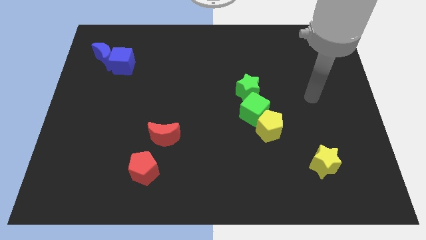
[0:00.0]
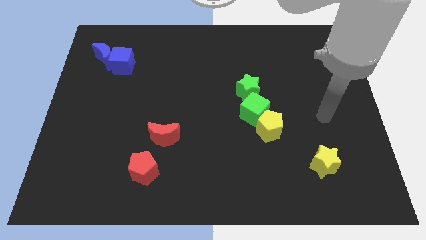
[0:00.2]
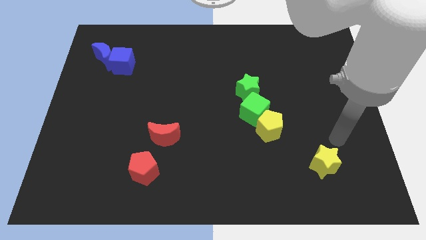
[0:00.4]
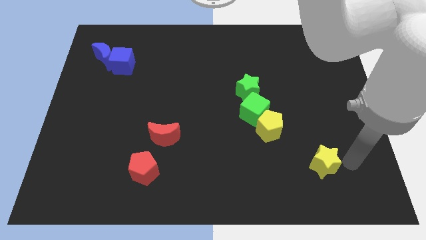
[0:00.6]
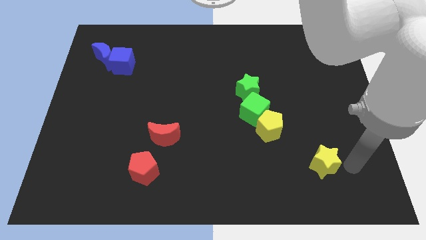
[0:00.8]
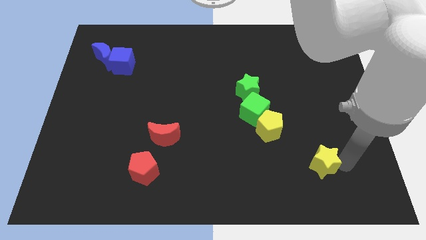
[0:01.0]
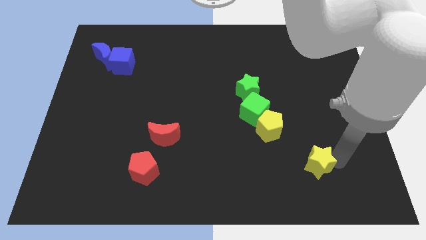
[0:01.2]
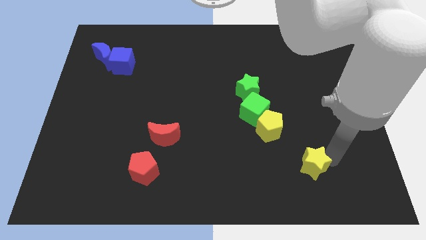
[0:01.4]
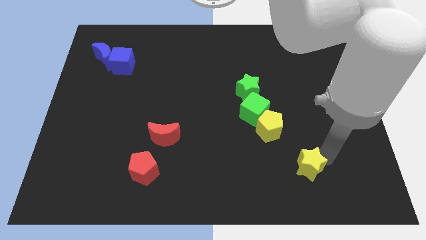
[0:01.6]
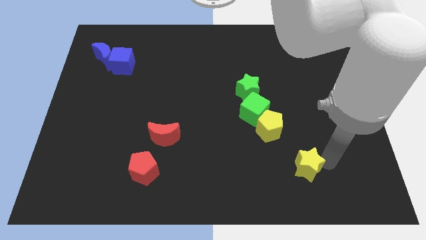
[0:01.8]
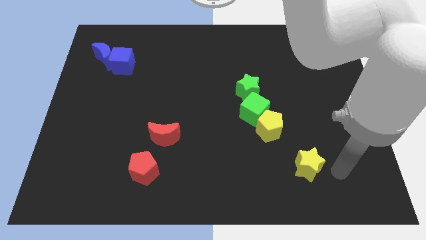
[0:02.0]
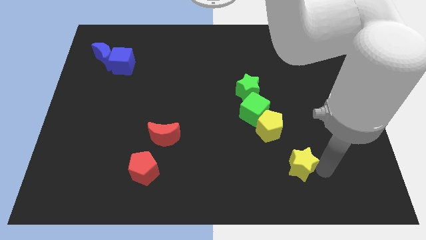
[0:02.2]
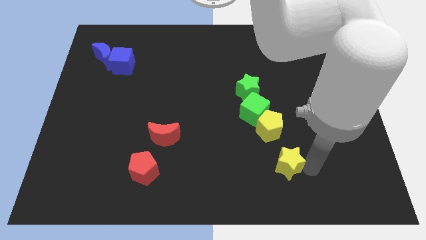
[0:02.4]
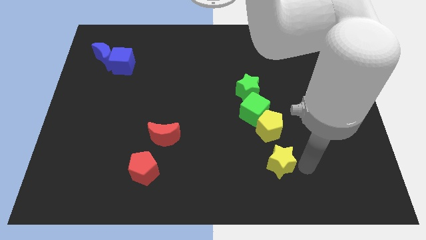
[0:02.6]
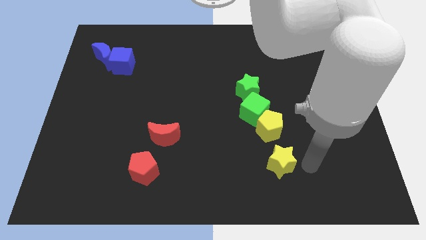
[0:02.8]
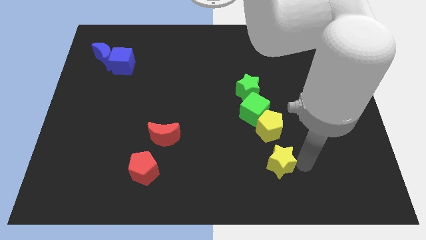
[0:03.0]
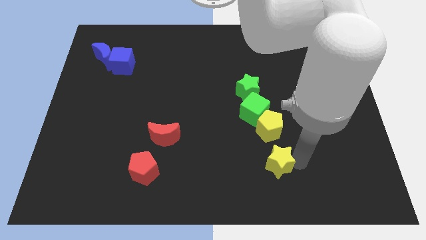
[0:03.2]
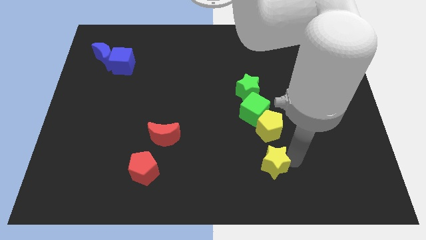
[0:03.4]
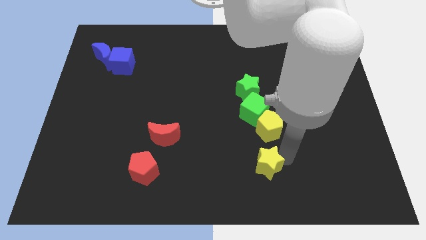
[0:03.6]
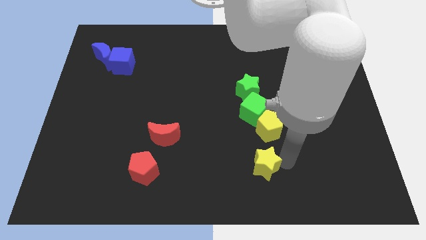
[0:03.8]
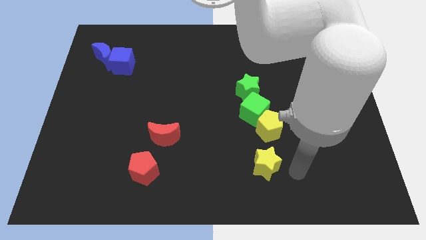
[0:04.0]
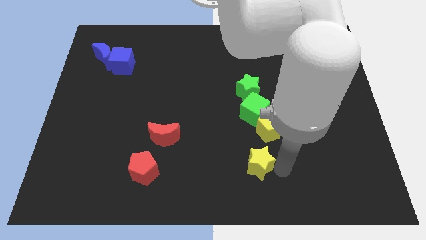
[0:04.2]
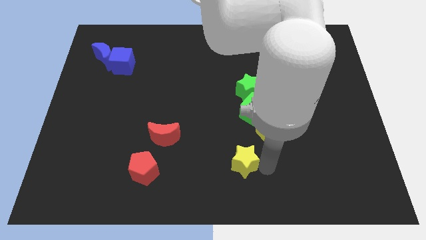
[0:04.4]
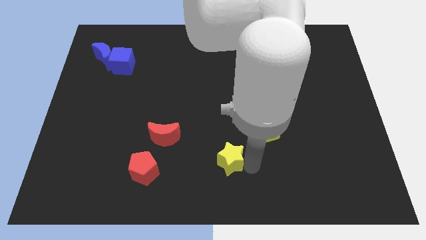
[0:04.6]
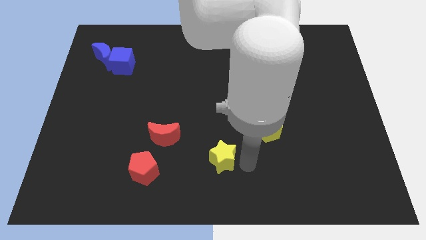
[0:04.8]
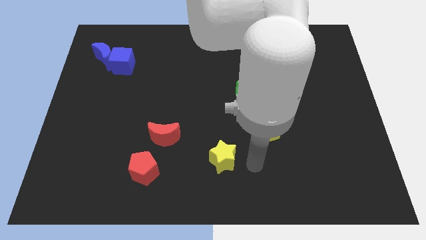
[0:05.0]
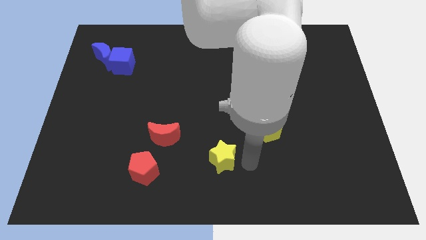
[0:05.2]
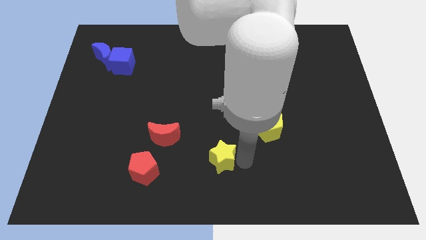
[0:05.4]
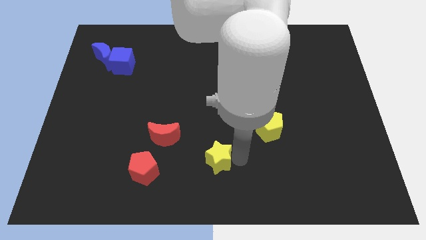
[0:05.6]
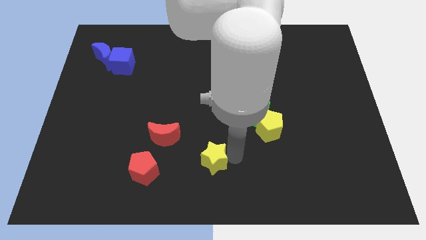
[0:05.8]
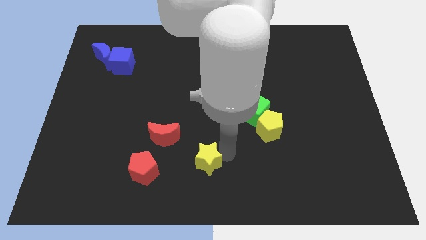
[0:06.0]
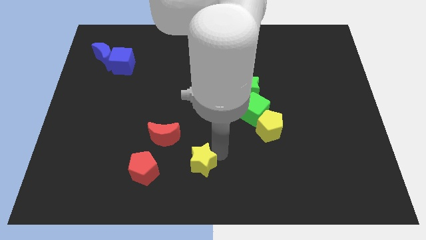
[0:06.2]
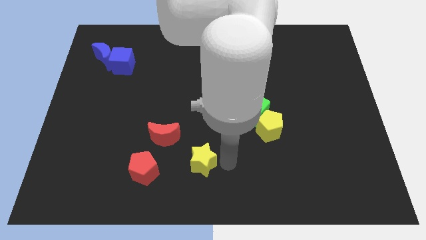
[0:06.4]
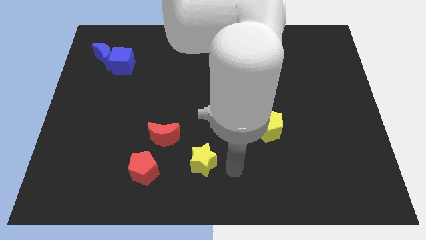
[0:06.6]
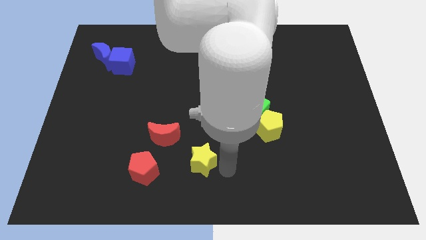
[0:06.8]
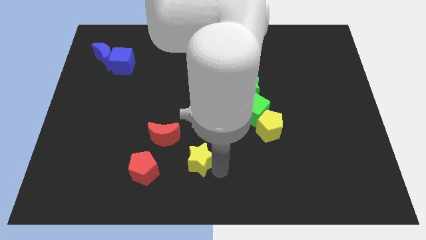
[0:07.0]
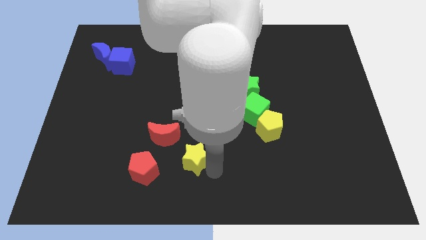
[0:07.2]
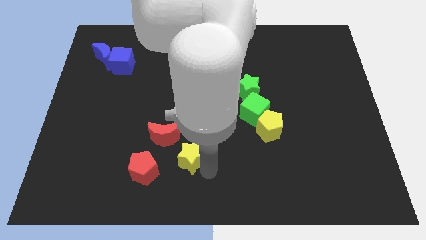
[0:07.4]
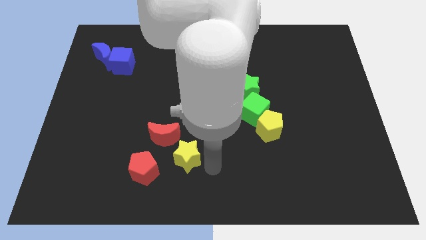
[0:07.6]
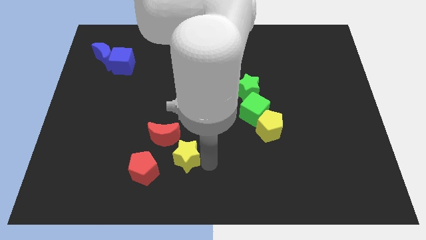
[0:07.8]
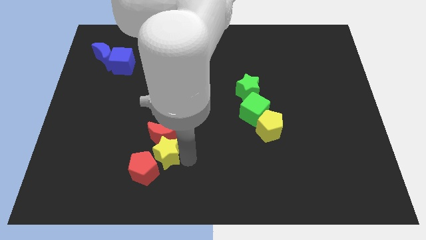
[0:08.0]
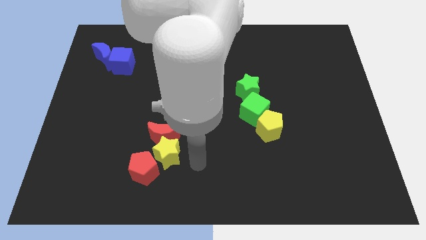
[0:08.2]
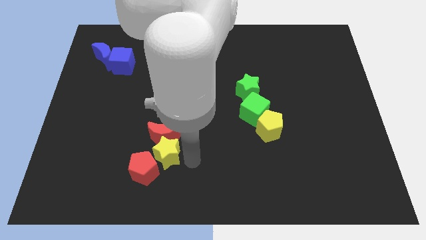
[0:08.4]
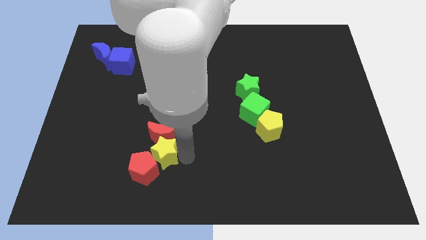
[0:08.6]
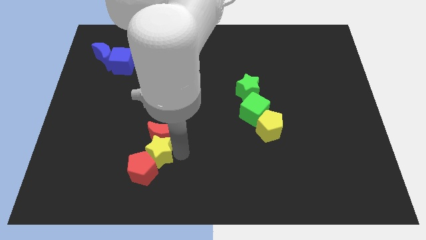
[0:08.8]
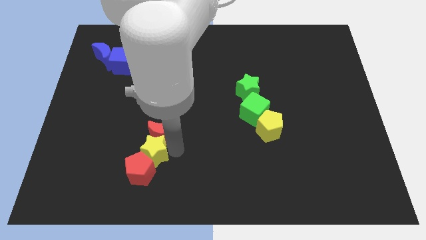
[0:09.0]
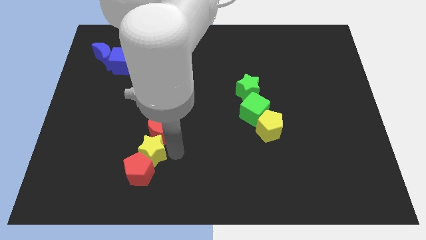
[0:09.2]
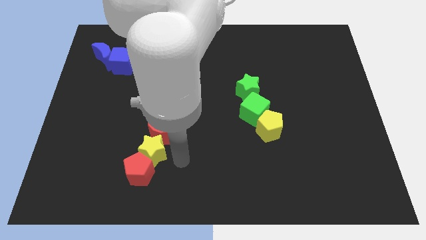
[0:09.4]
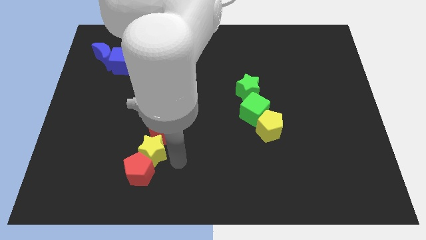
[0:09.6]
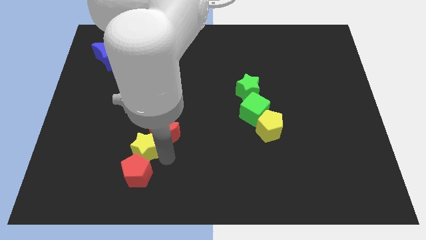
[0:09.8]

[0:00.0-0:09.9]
slide the yellow star to the left side of the red moon

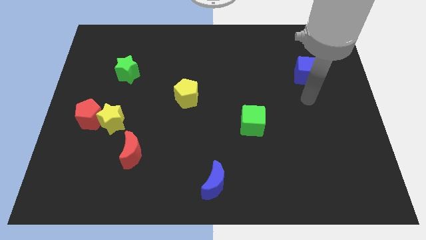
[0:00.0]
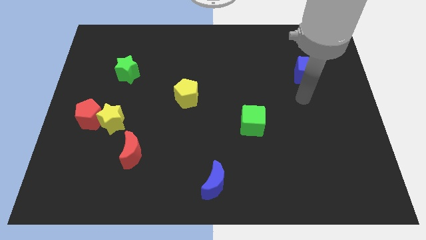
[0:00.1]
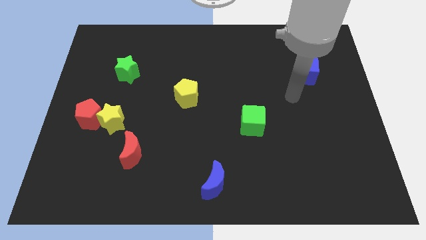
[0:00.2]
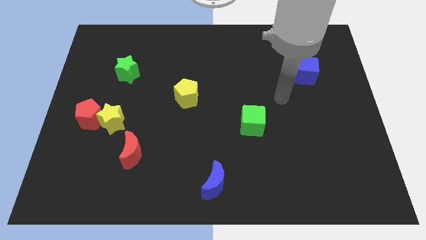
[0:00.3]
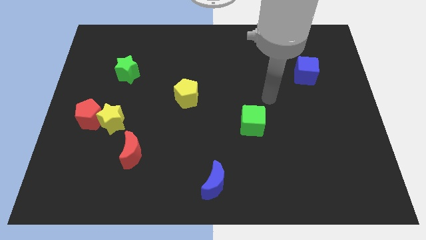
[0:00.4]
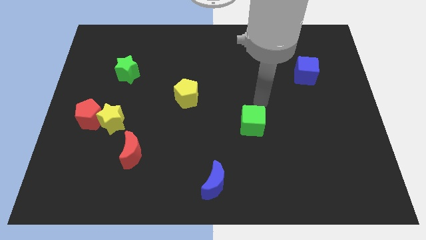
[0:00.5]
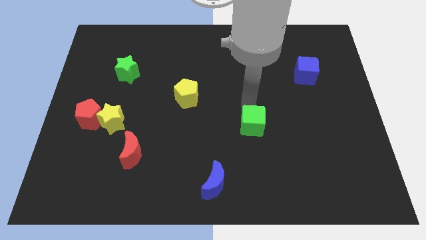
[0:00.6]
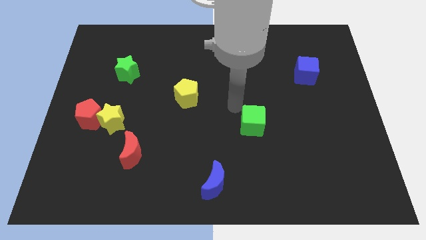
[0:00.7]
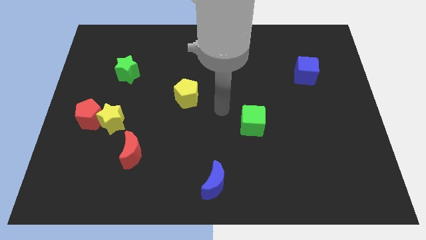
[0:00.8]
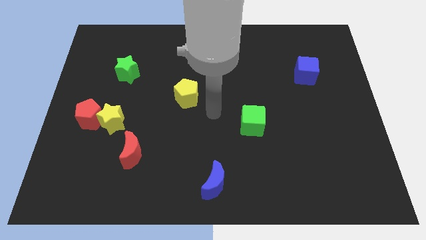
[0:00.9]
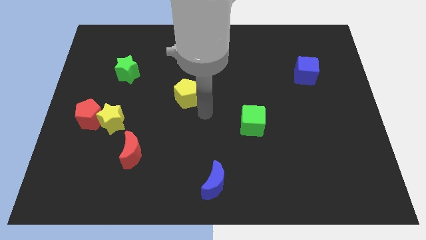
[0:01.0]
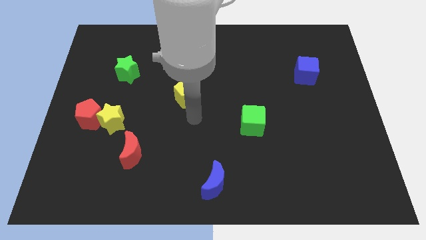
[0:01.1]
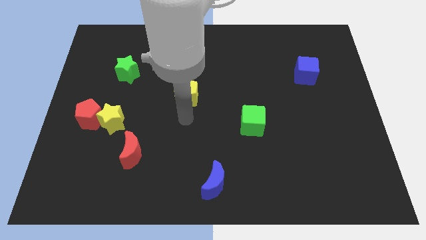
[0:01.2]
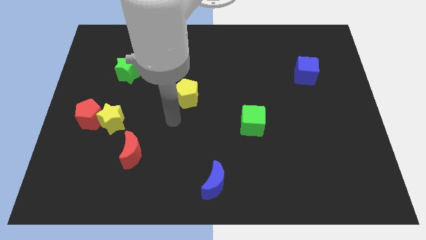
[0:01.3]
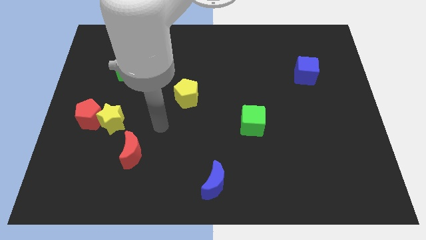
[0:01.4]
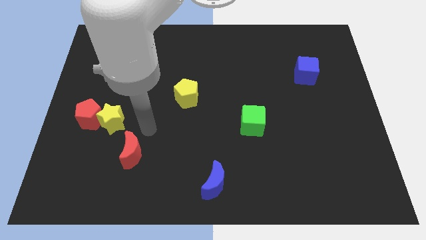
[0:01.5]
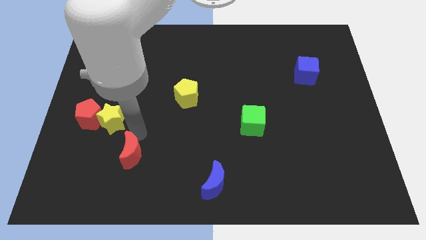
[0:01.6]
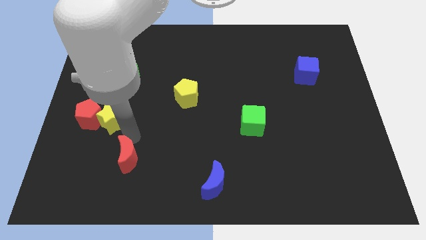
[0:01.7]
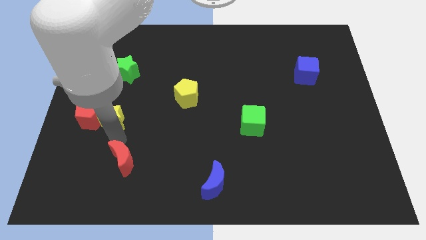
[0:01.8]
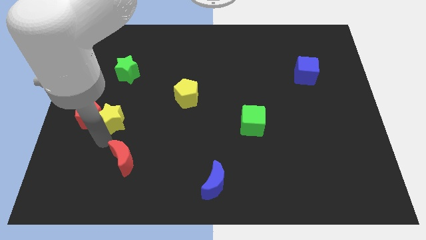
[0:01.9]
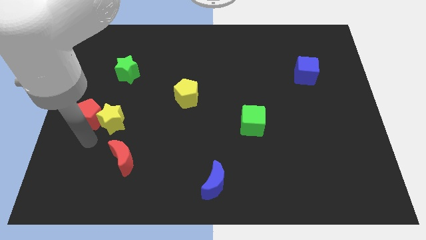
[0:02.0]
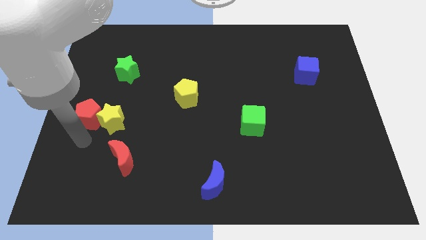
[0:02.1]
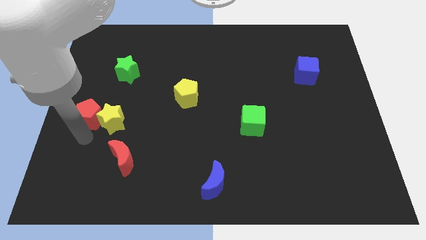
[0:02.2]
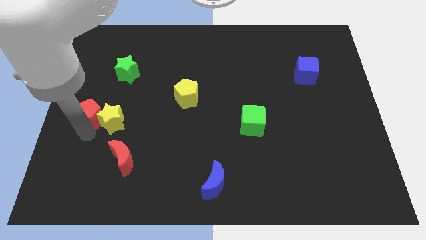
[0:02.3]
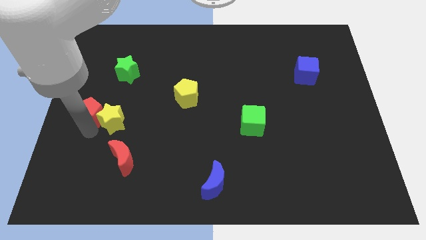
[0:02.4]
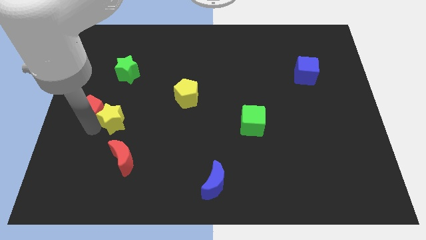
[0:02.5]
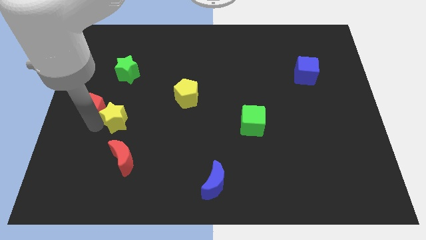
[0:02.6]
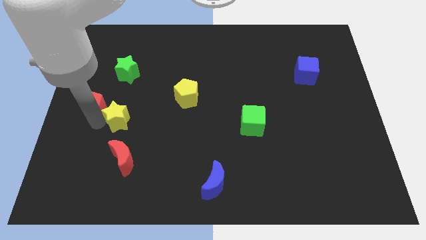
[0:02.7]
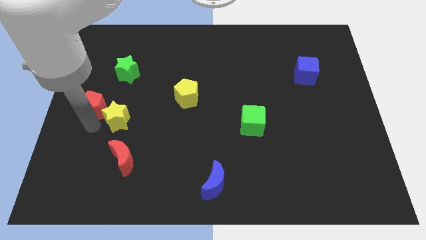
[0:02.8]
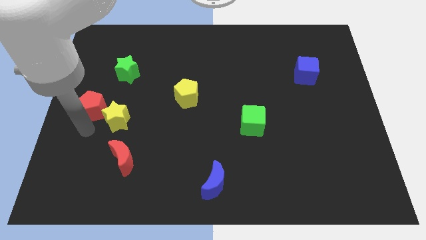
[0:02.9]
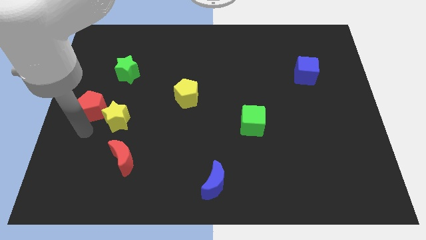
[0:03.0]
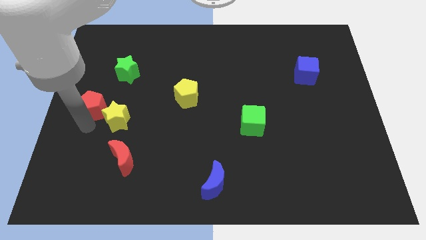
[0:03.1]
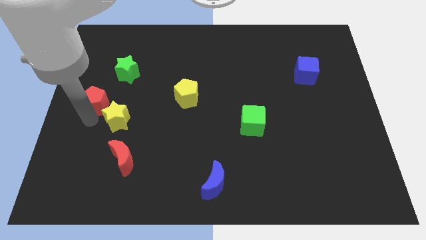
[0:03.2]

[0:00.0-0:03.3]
put the red pentagon to the bottom left side of the green star
